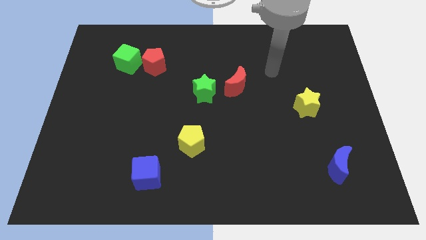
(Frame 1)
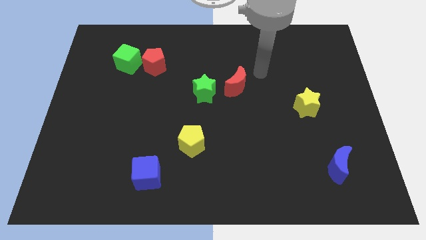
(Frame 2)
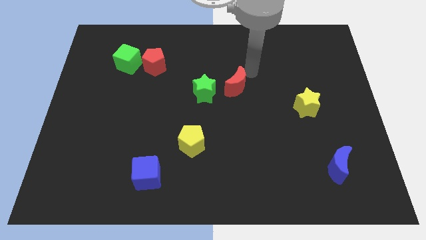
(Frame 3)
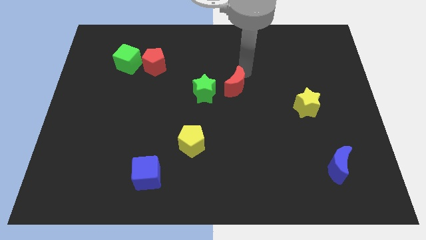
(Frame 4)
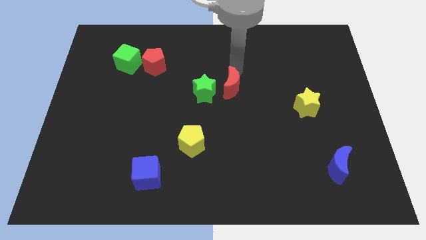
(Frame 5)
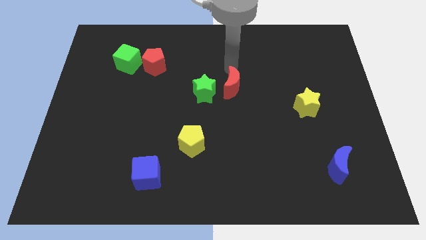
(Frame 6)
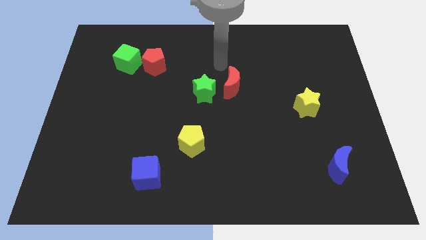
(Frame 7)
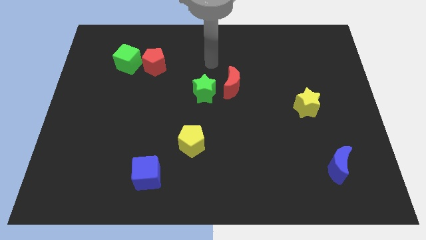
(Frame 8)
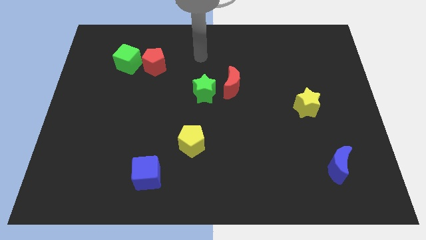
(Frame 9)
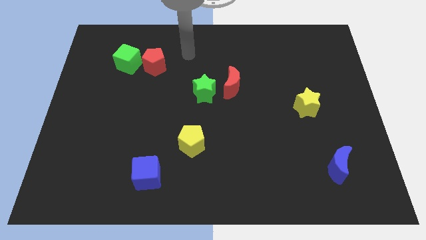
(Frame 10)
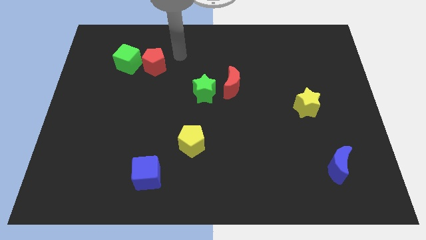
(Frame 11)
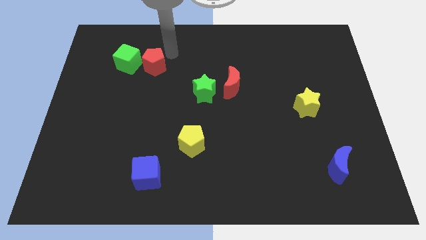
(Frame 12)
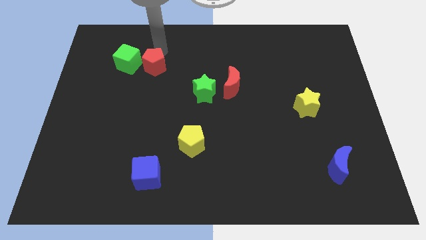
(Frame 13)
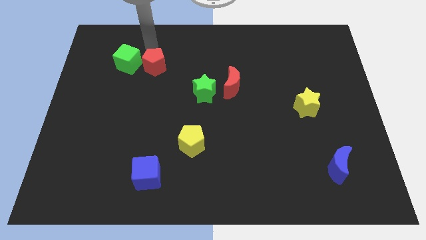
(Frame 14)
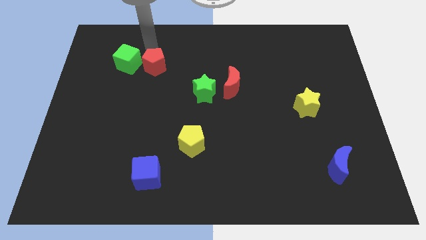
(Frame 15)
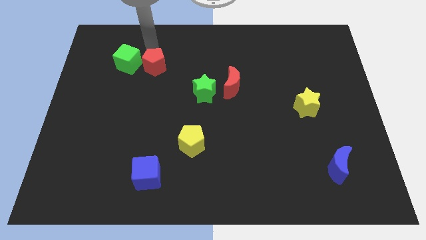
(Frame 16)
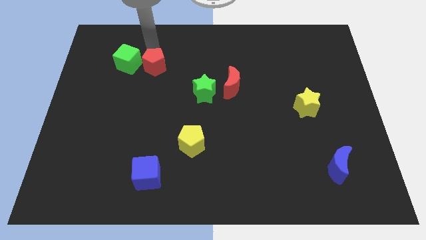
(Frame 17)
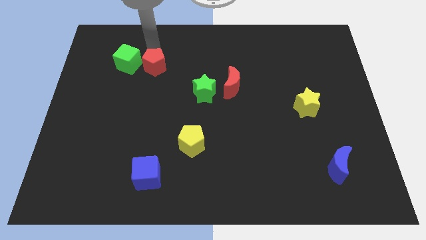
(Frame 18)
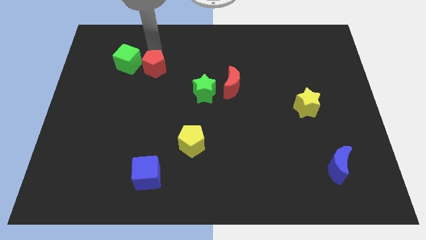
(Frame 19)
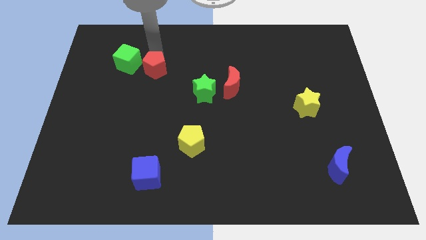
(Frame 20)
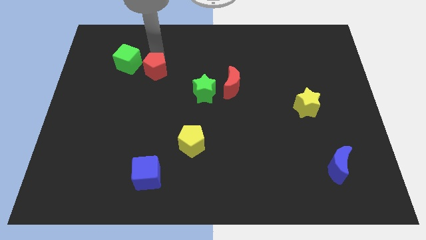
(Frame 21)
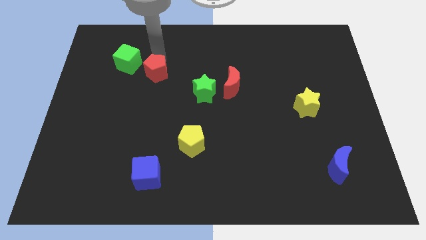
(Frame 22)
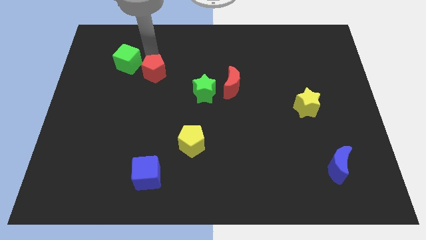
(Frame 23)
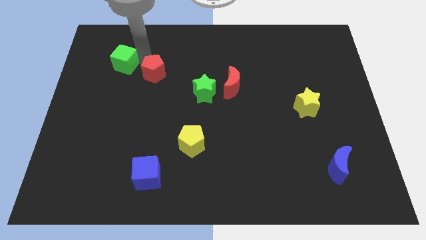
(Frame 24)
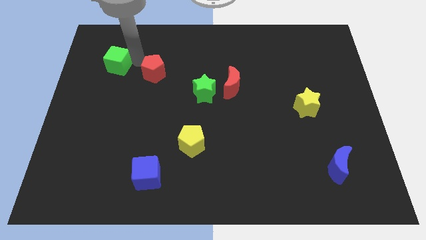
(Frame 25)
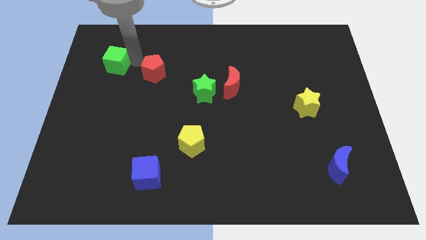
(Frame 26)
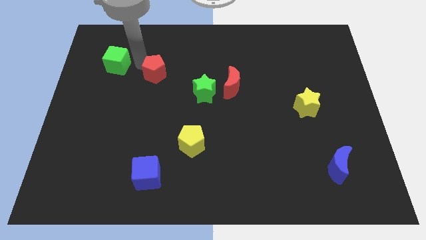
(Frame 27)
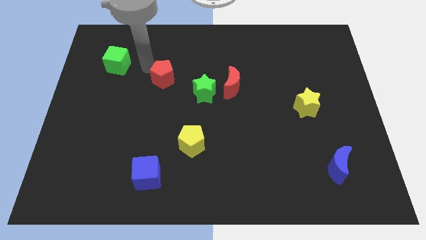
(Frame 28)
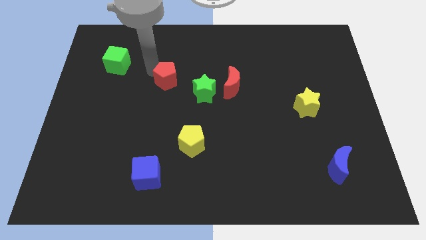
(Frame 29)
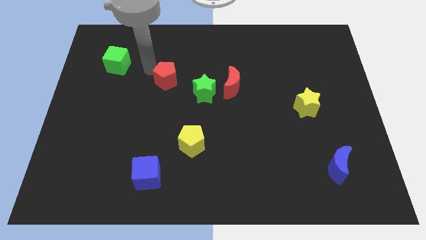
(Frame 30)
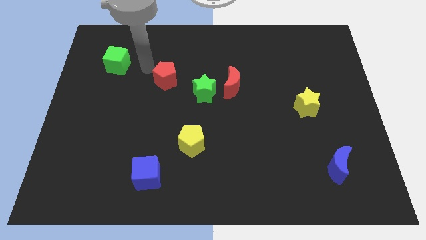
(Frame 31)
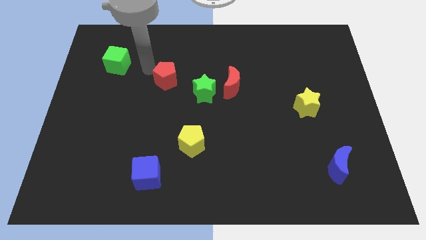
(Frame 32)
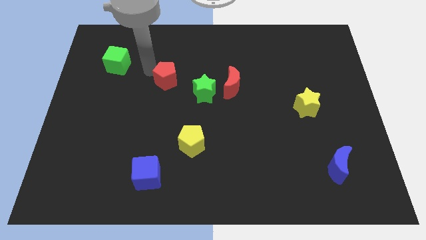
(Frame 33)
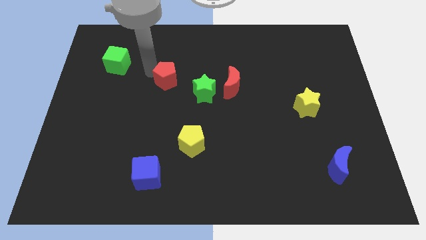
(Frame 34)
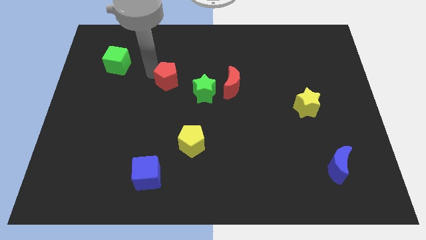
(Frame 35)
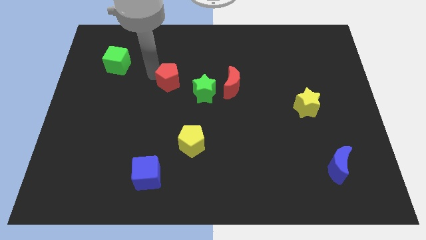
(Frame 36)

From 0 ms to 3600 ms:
move the red pentagon a little bit diagonally down and right

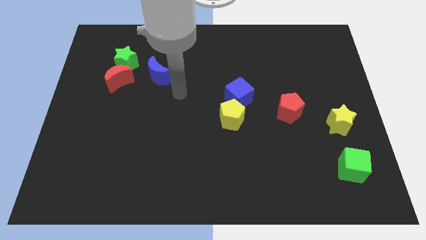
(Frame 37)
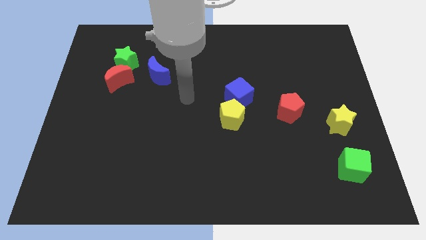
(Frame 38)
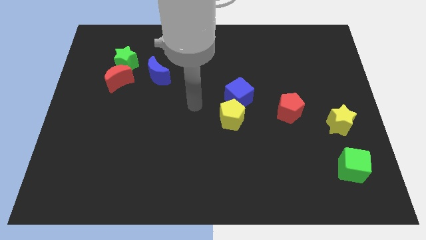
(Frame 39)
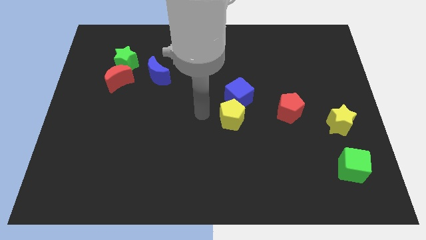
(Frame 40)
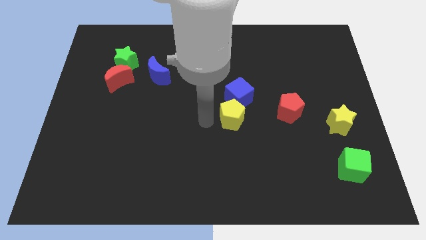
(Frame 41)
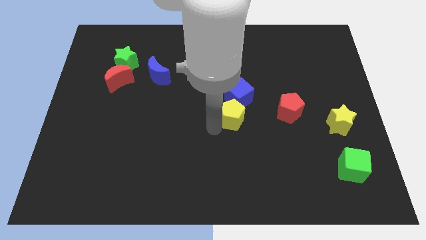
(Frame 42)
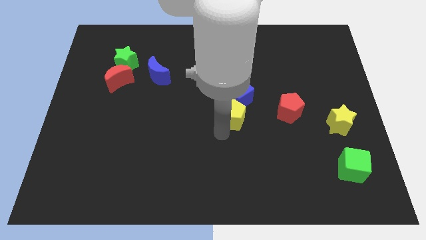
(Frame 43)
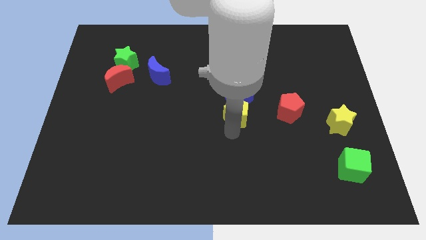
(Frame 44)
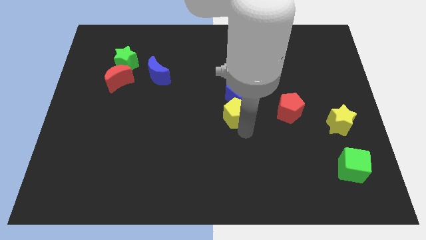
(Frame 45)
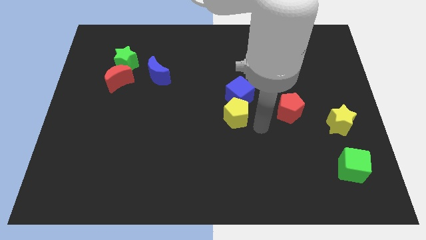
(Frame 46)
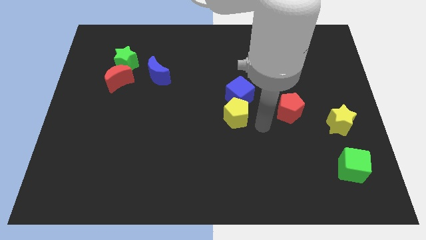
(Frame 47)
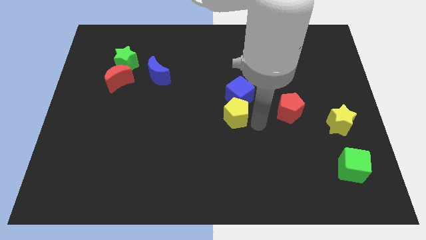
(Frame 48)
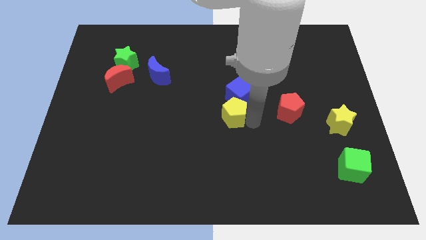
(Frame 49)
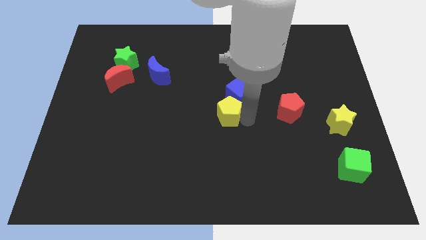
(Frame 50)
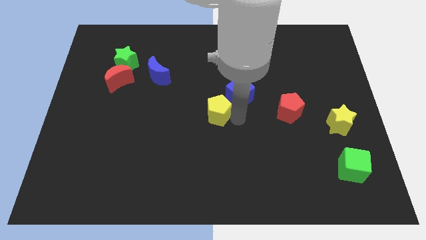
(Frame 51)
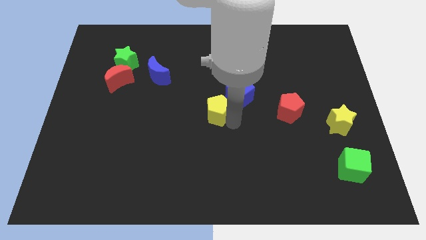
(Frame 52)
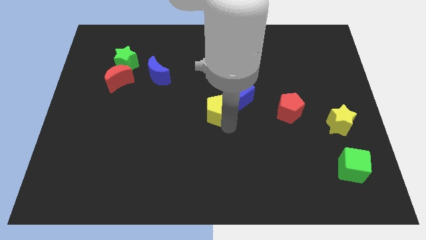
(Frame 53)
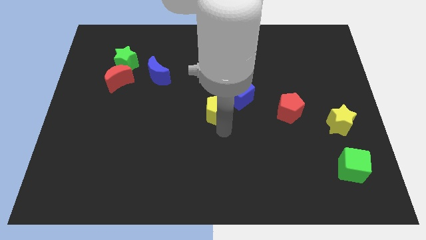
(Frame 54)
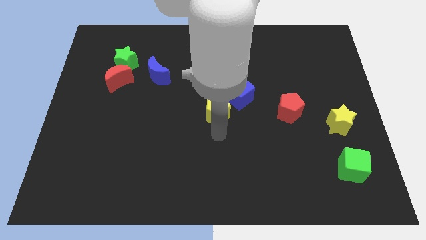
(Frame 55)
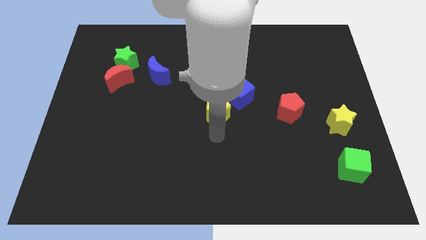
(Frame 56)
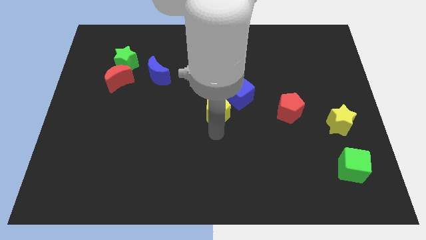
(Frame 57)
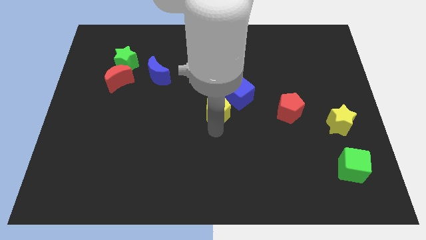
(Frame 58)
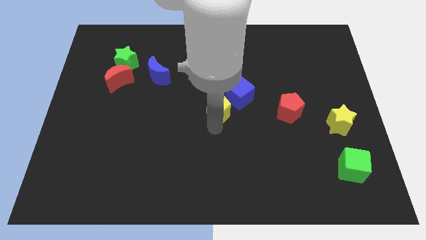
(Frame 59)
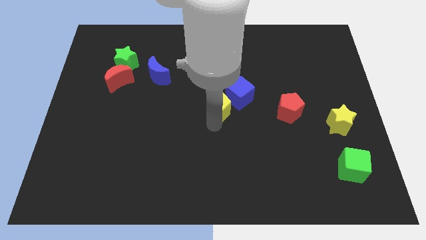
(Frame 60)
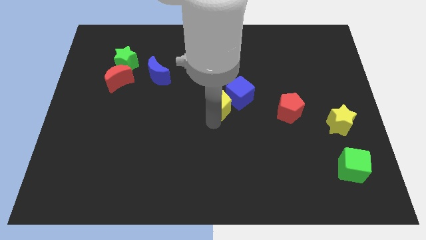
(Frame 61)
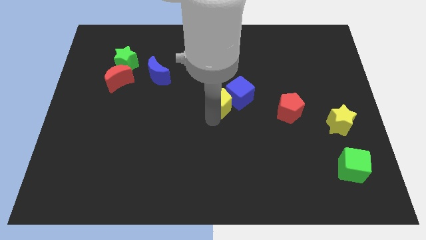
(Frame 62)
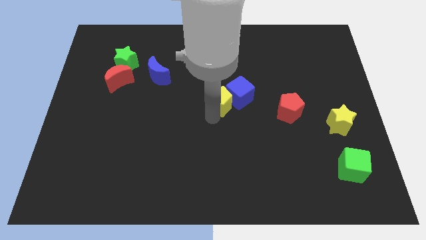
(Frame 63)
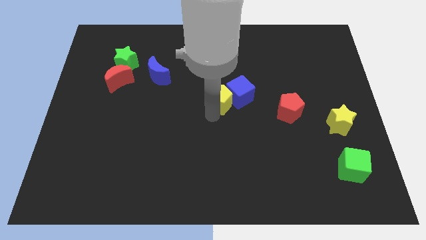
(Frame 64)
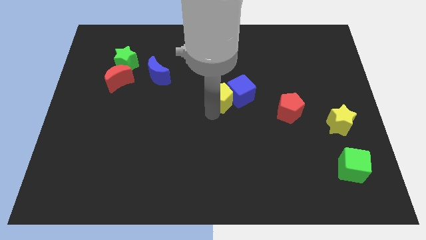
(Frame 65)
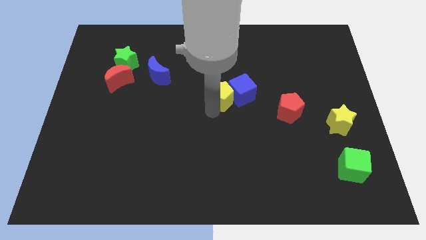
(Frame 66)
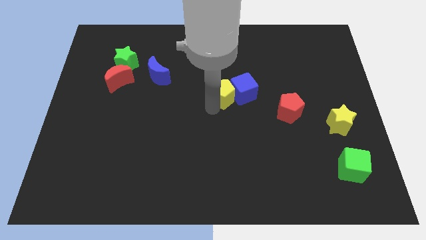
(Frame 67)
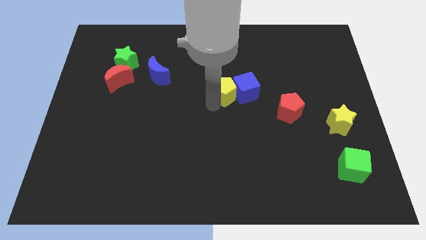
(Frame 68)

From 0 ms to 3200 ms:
push the yellow pentagon up a little

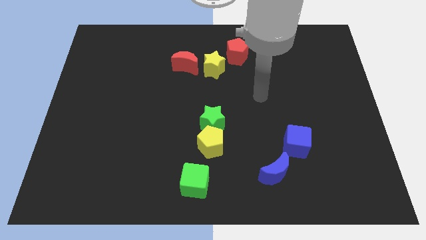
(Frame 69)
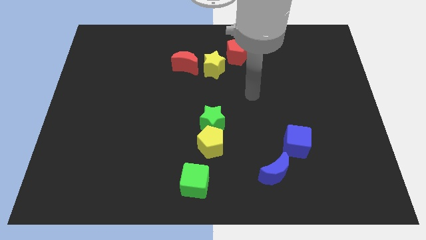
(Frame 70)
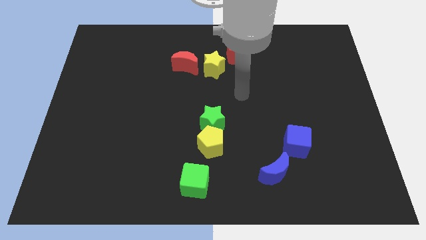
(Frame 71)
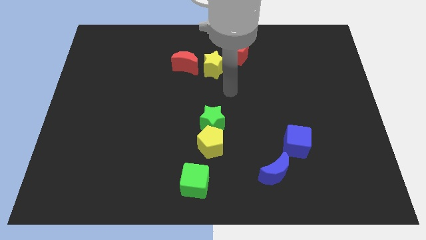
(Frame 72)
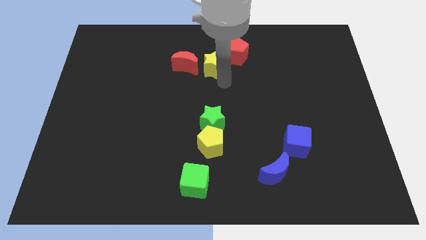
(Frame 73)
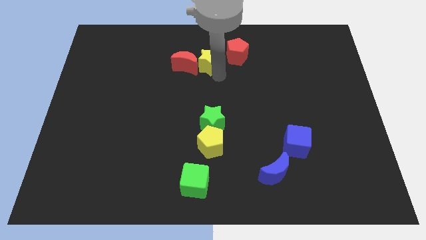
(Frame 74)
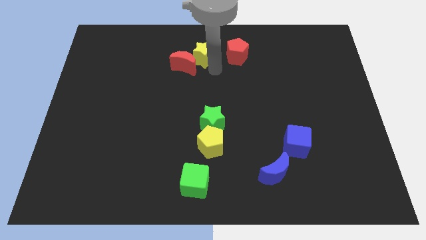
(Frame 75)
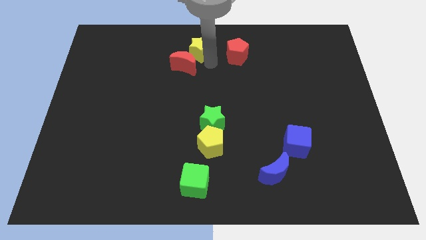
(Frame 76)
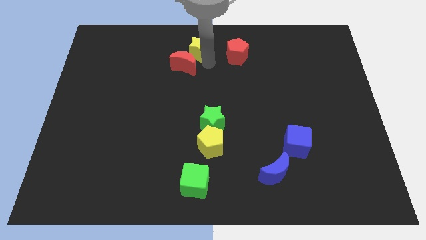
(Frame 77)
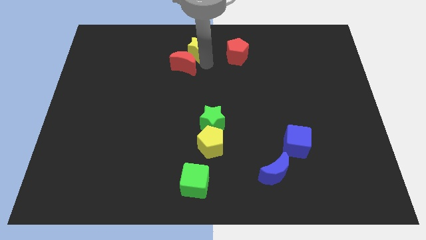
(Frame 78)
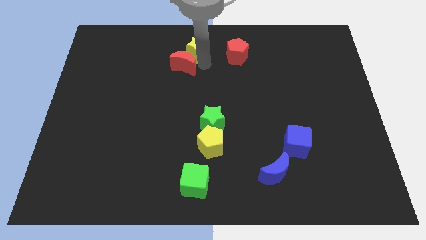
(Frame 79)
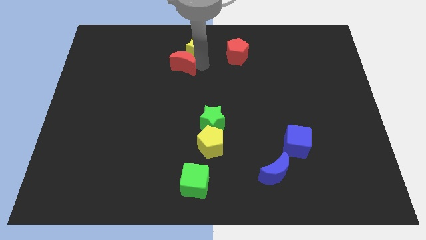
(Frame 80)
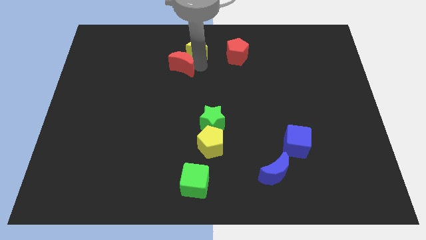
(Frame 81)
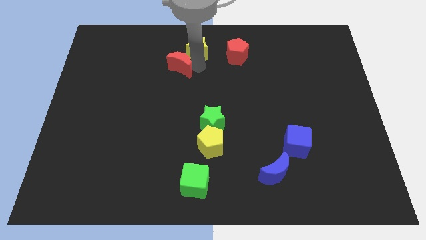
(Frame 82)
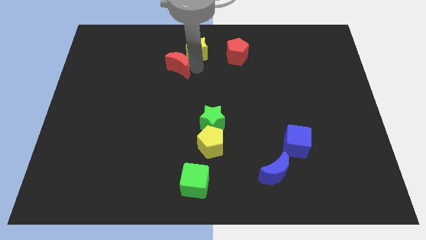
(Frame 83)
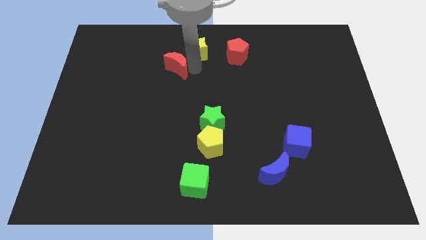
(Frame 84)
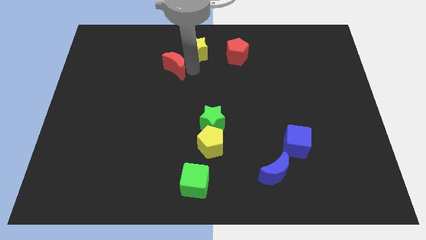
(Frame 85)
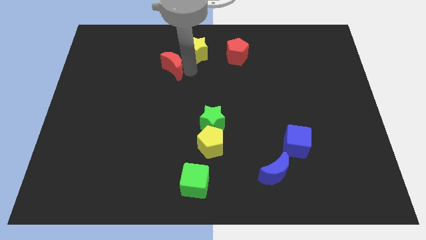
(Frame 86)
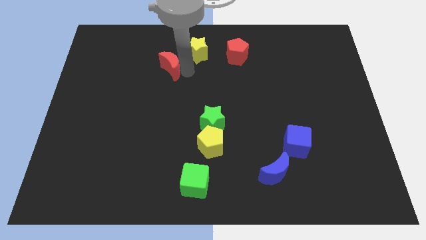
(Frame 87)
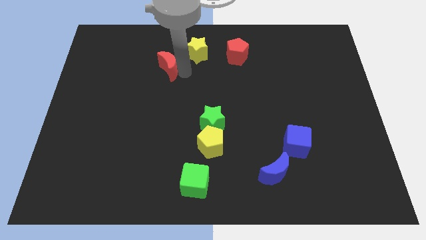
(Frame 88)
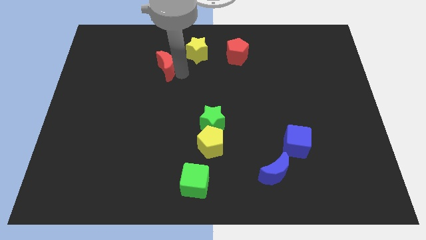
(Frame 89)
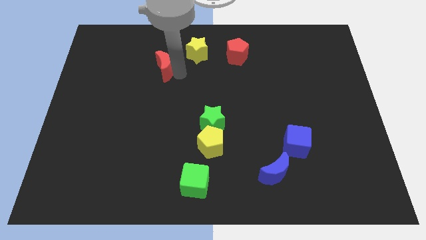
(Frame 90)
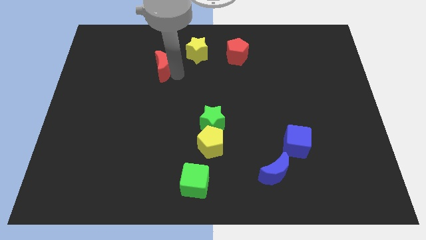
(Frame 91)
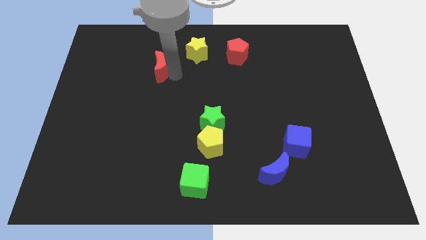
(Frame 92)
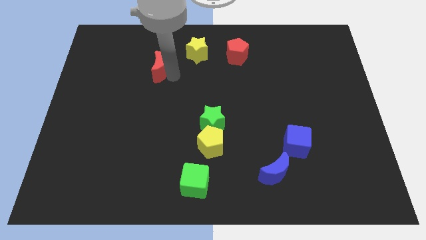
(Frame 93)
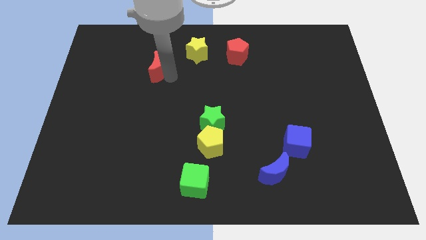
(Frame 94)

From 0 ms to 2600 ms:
move the red moon somewhat left
